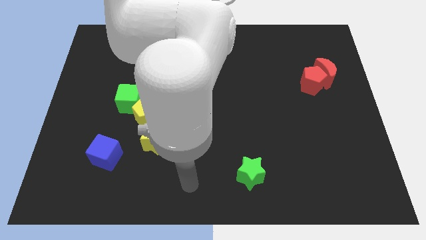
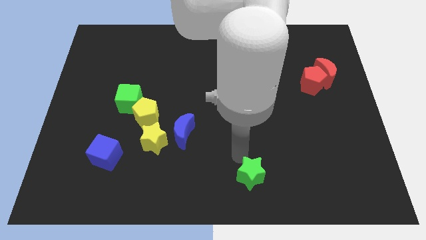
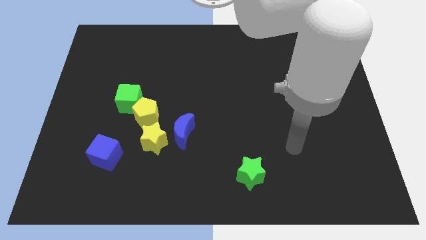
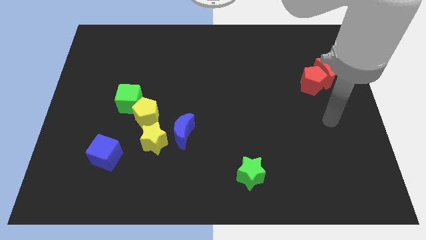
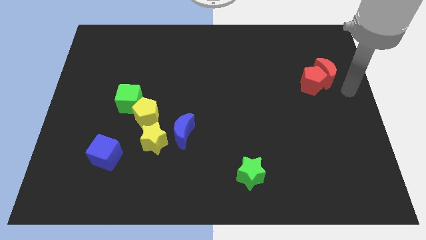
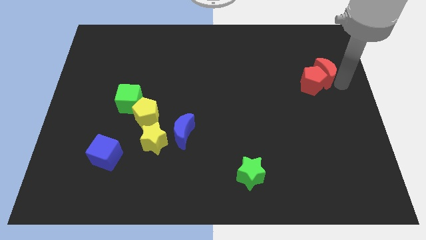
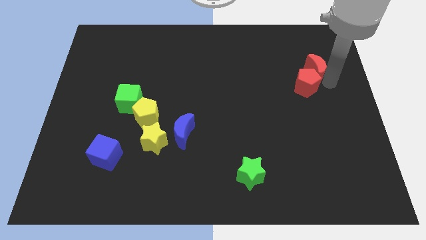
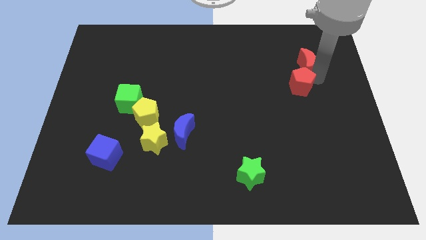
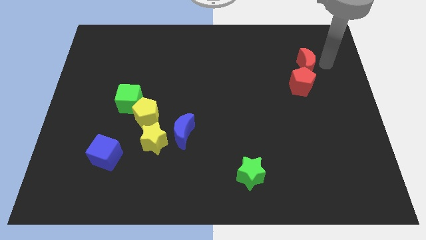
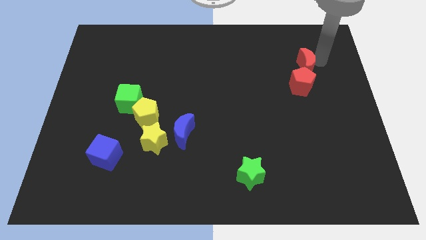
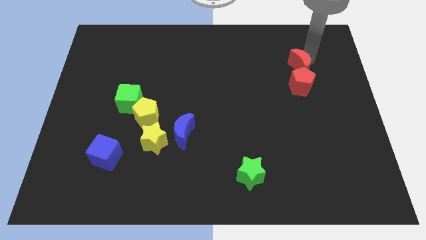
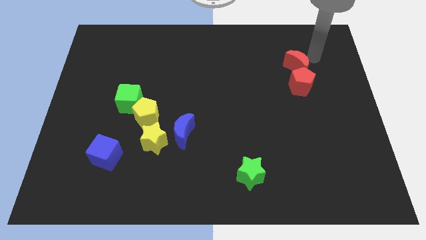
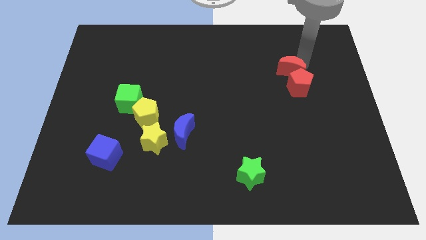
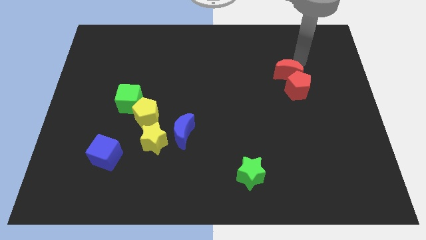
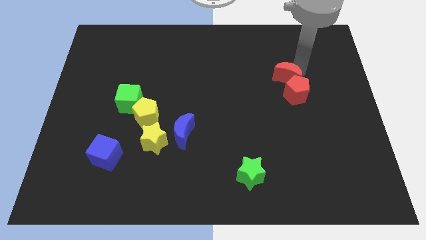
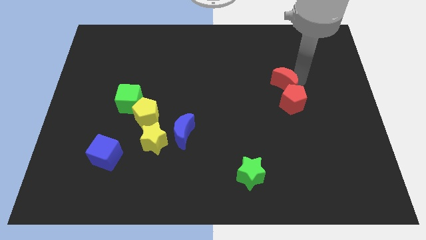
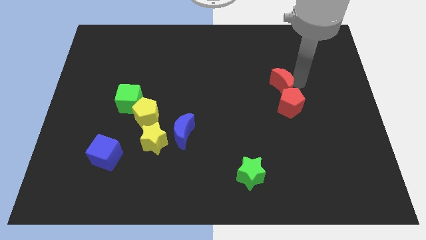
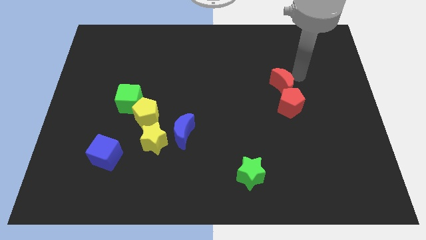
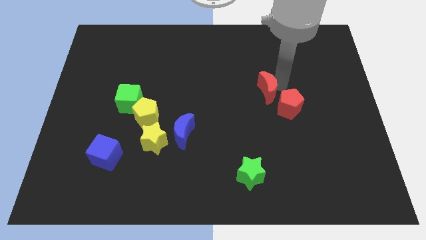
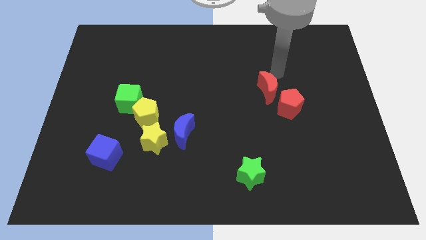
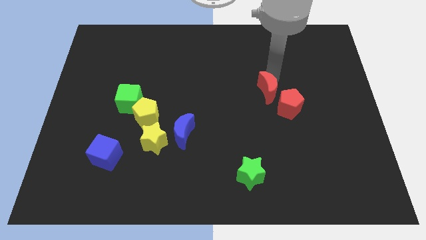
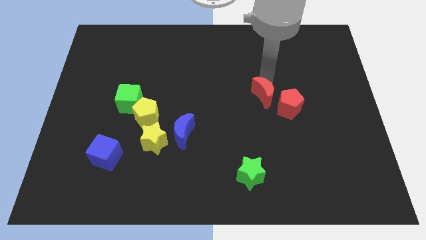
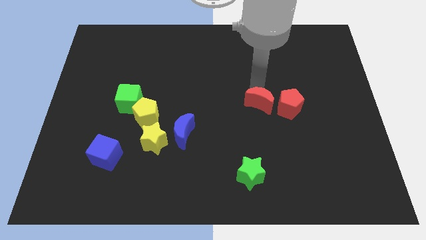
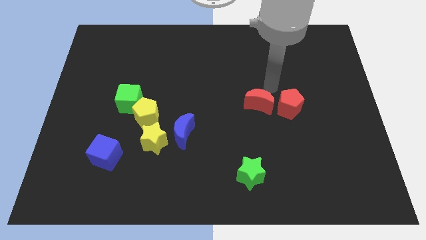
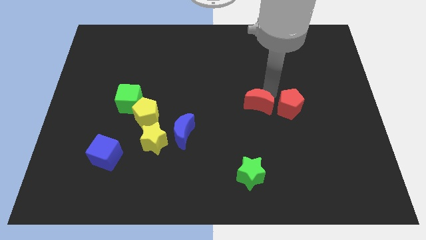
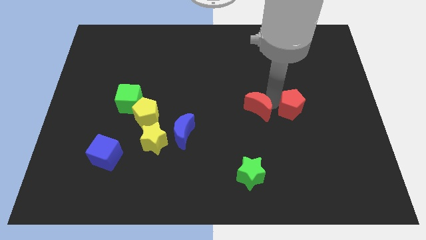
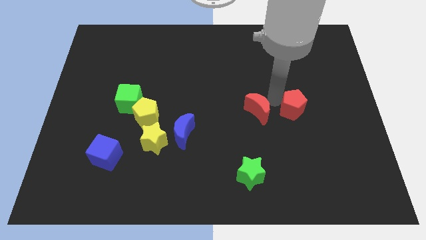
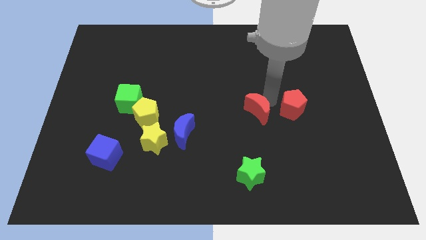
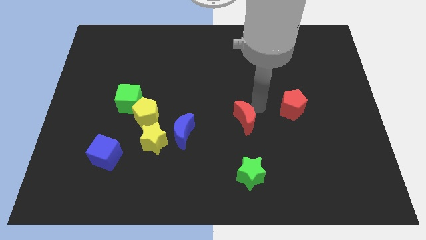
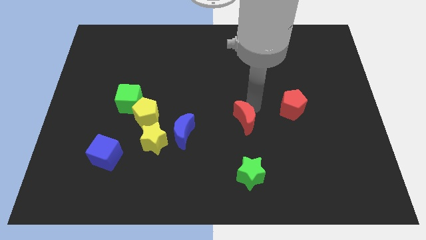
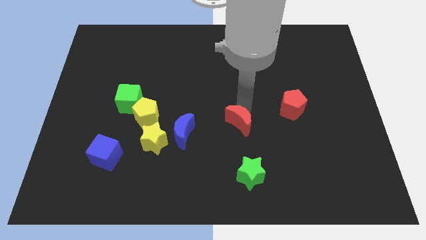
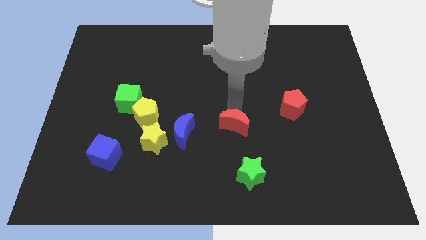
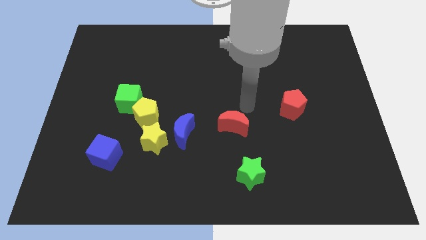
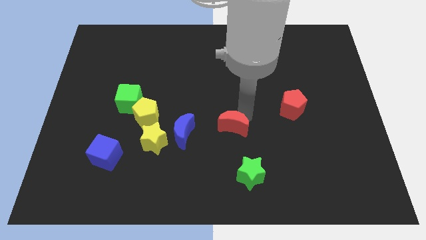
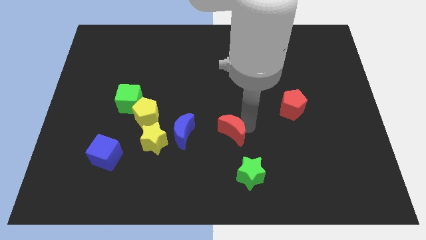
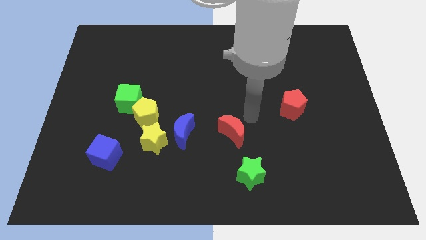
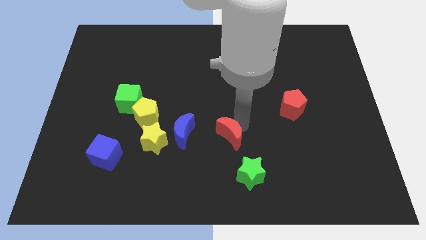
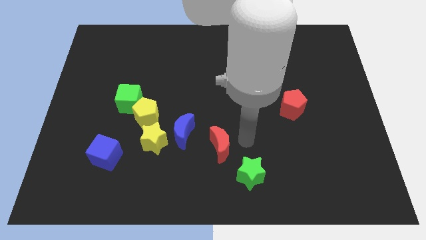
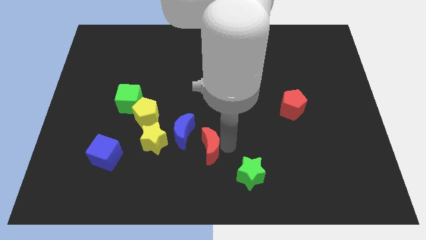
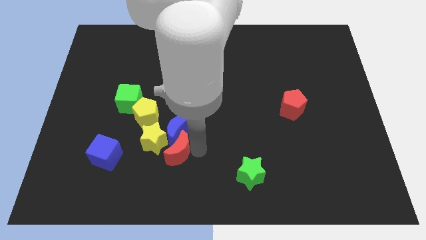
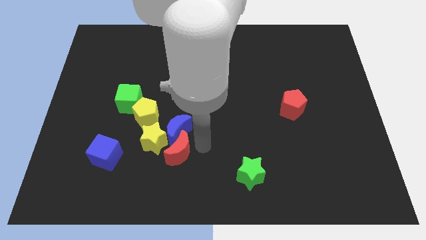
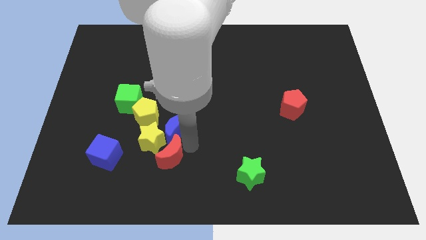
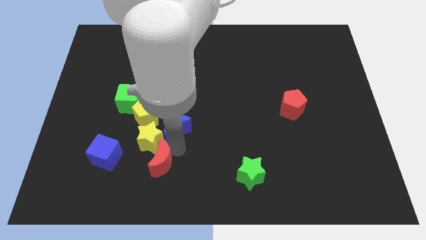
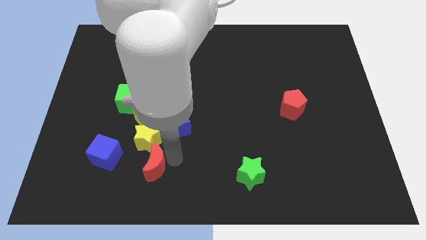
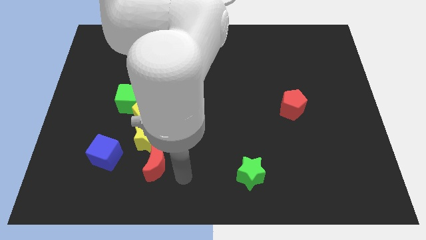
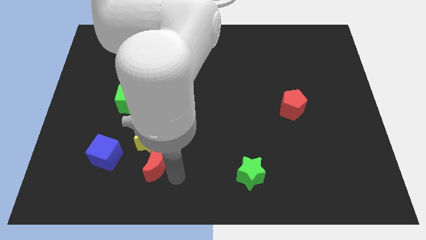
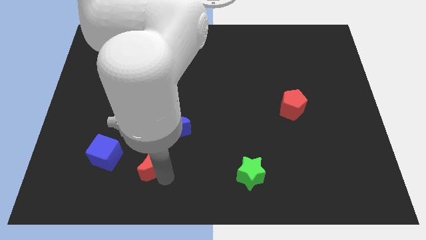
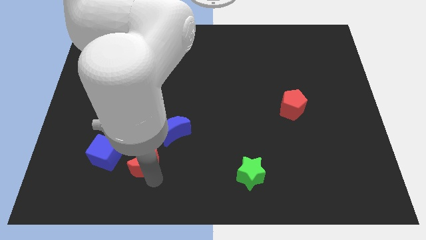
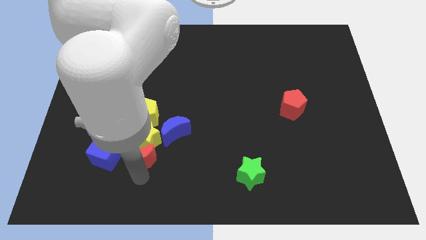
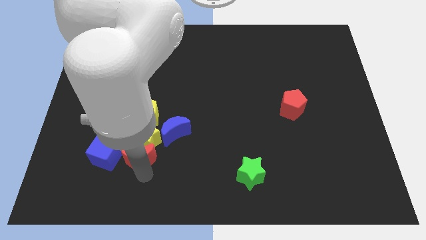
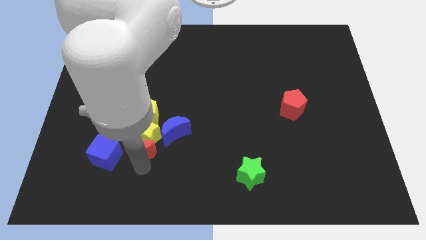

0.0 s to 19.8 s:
slide the red moon diagonally up and to the right of the blue cube

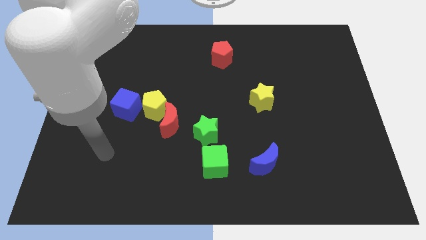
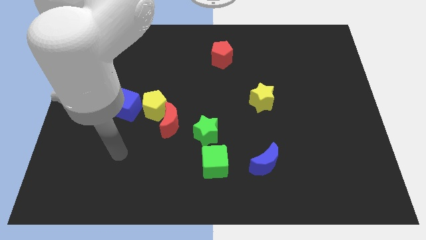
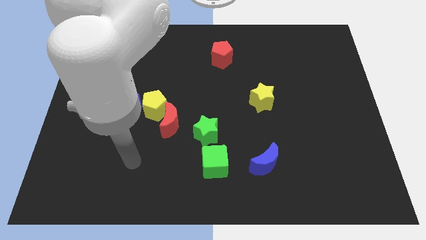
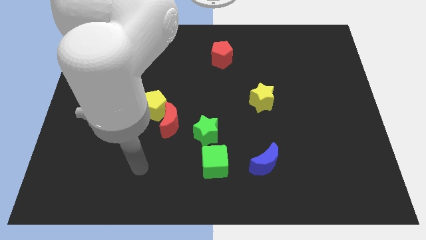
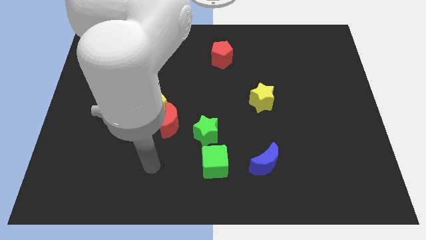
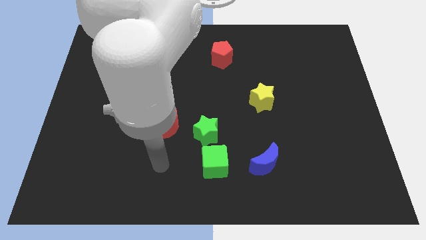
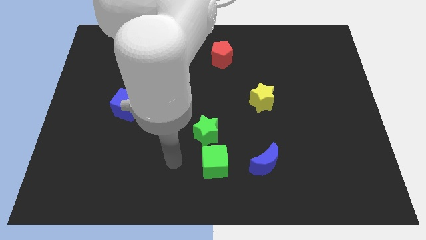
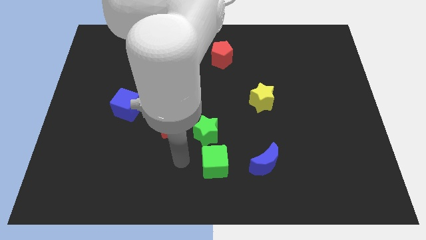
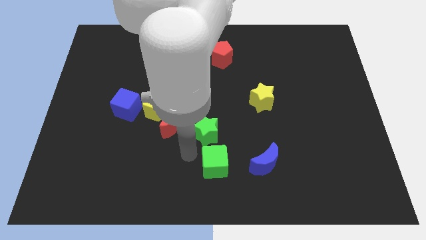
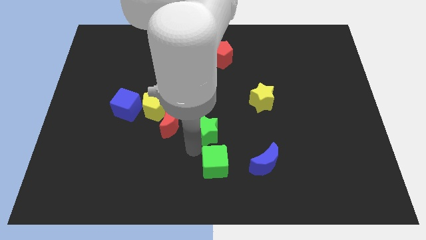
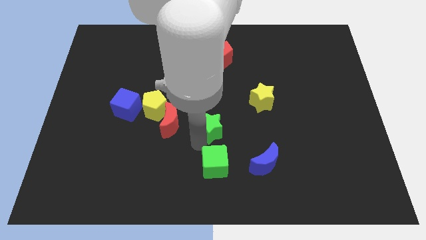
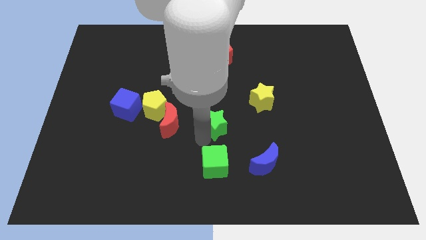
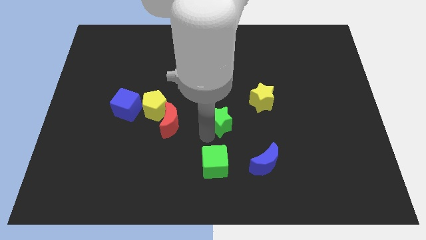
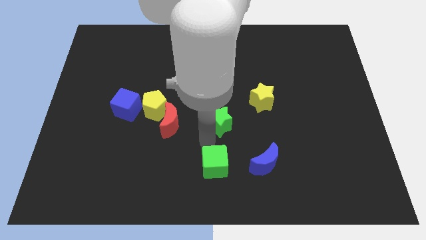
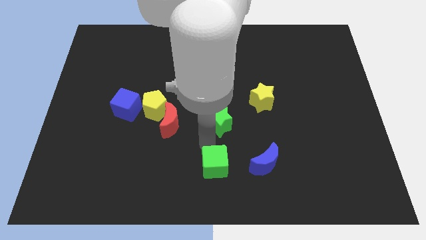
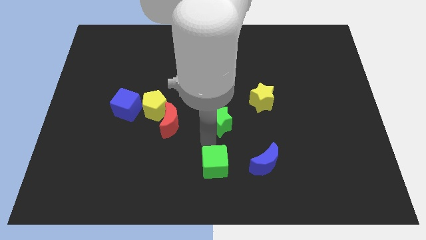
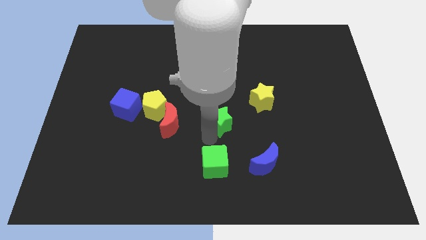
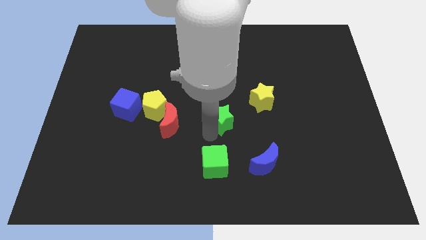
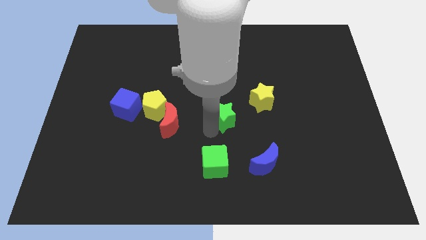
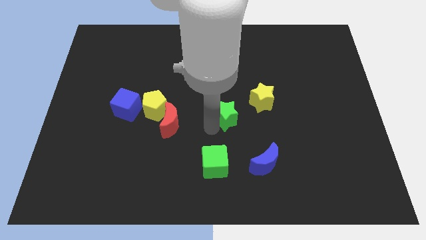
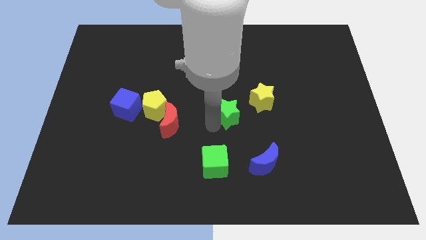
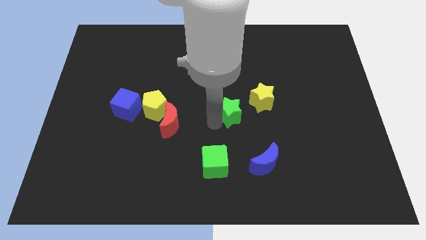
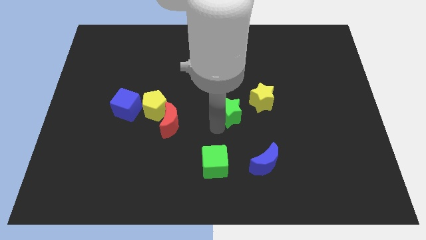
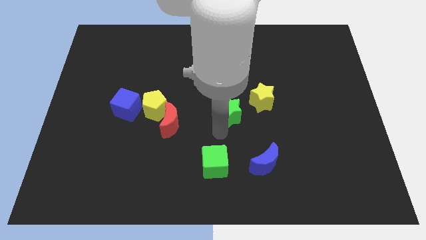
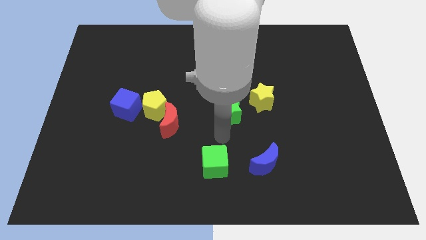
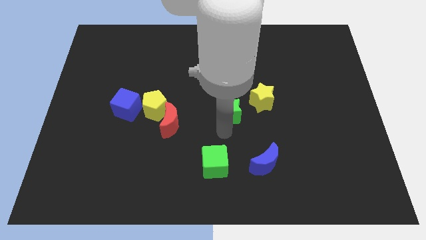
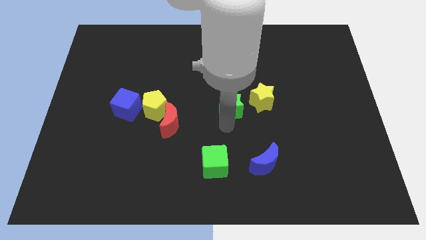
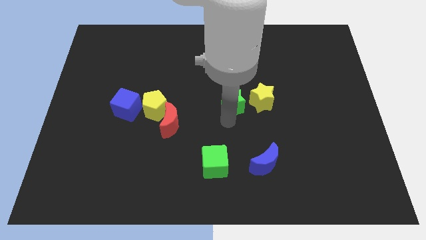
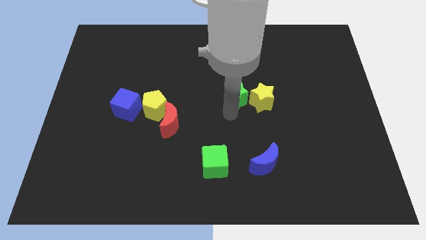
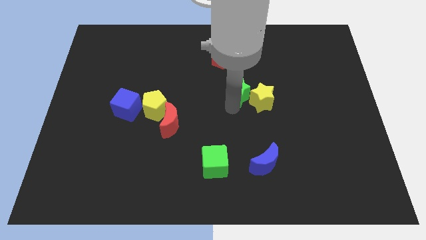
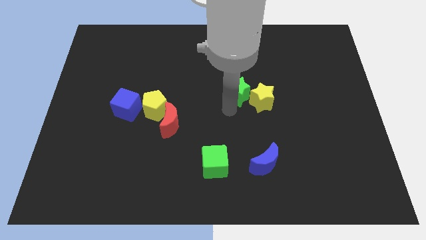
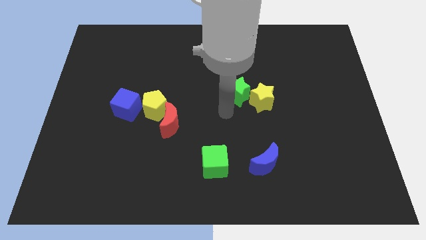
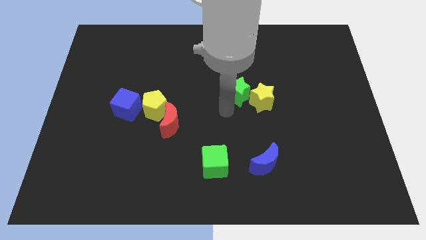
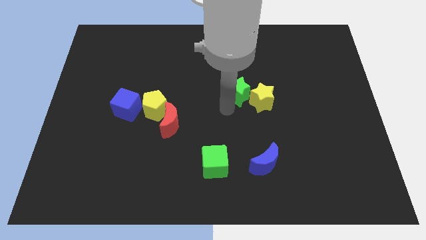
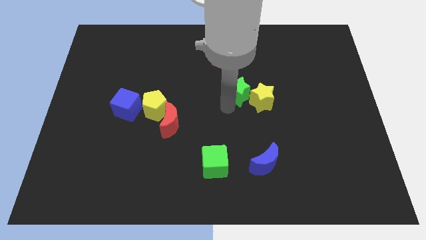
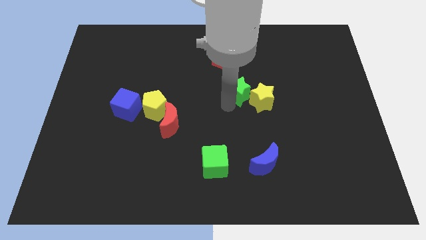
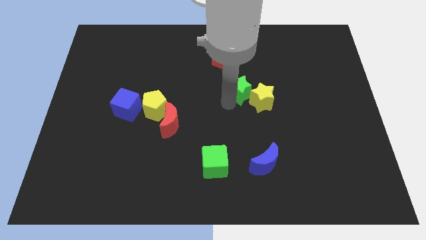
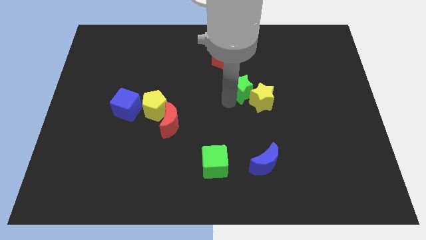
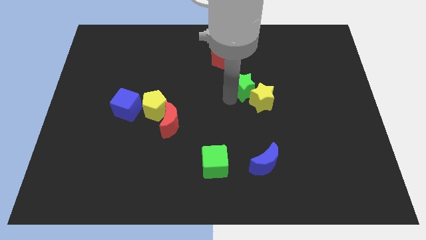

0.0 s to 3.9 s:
slide the green star to the top of the yellow star
